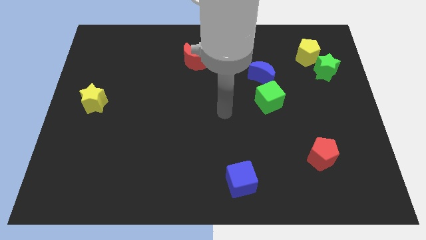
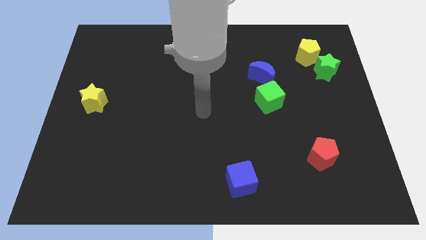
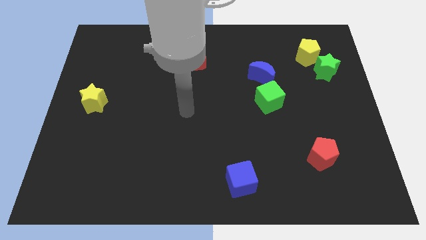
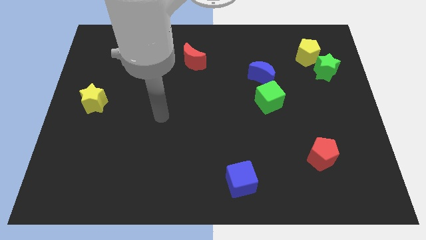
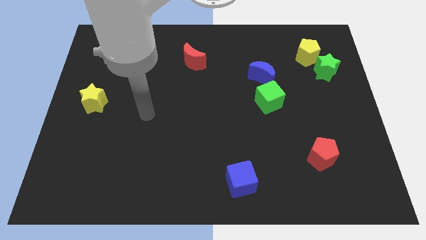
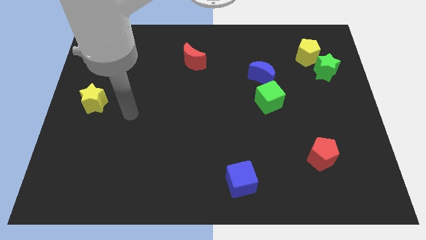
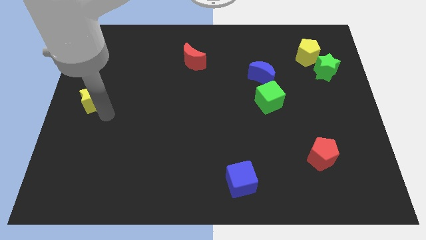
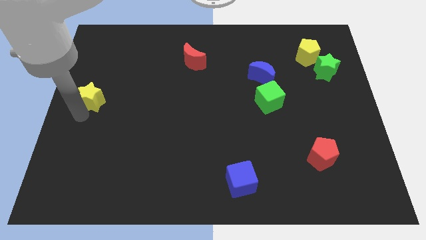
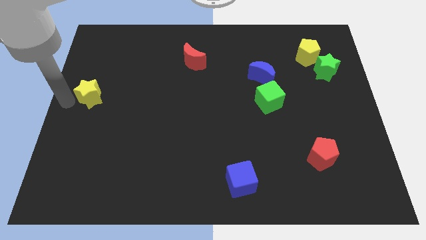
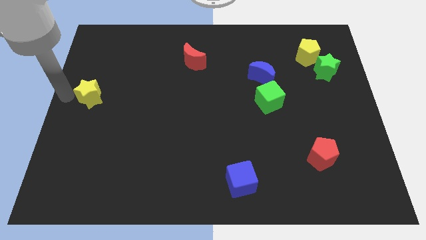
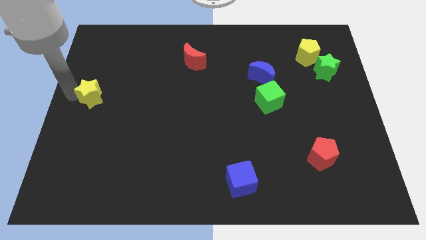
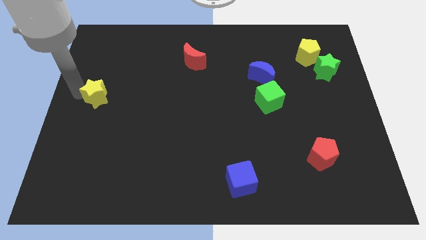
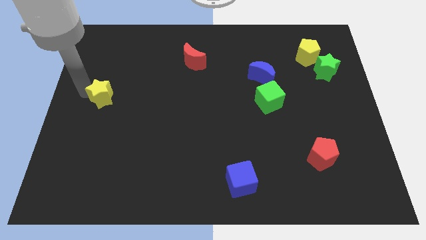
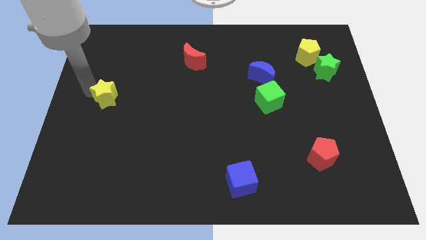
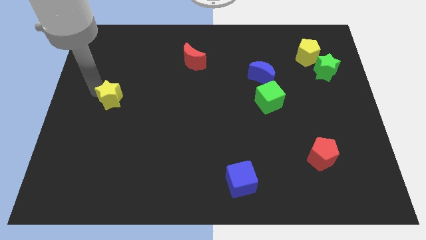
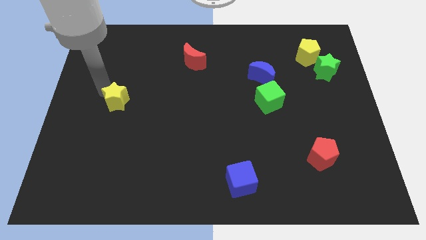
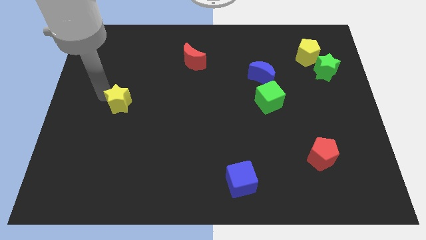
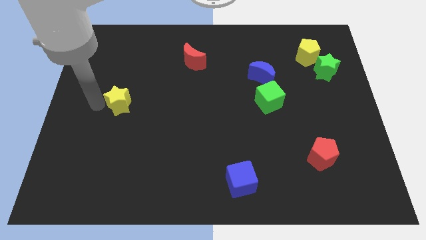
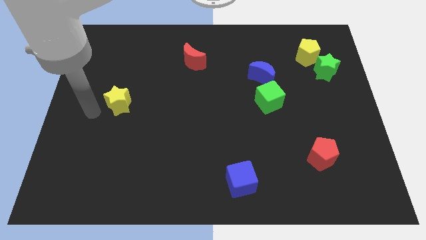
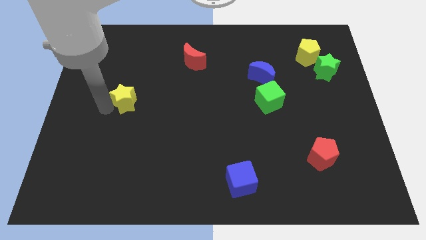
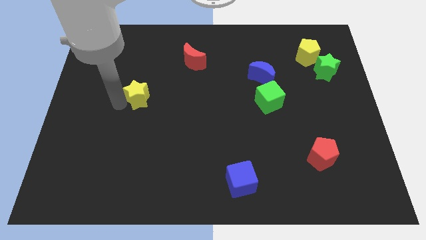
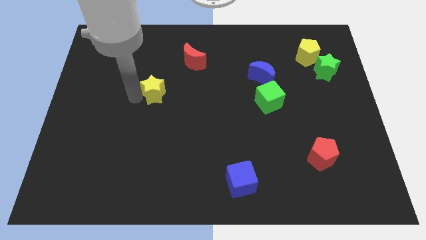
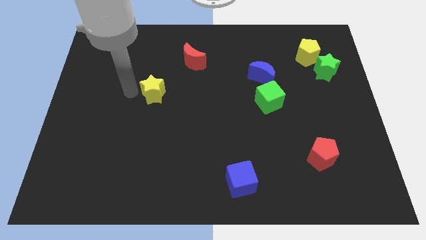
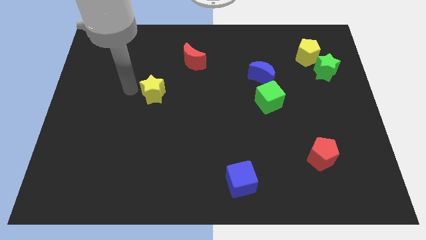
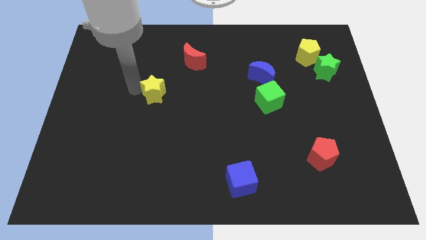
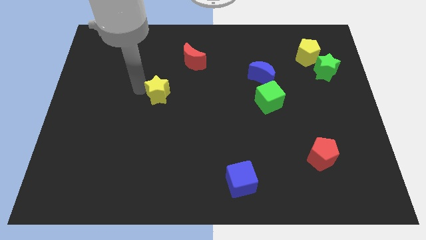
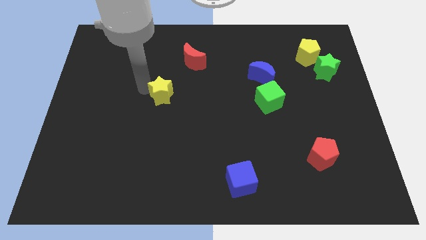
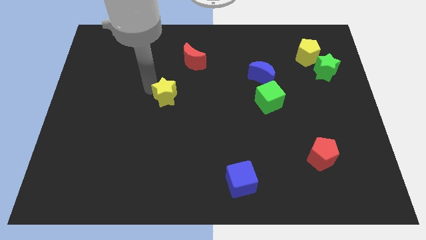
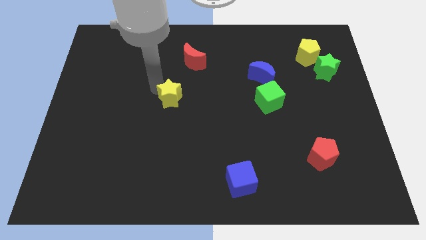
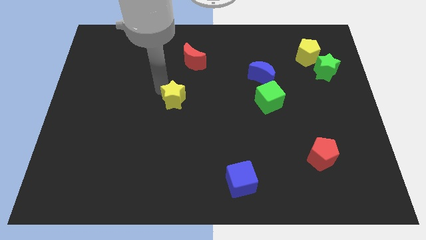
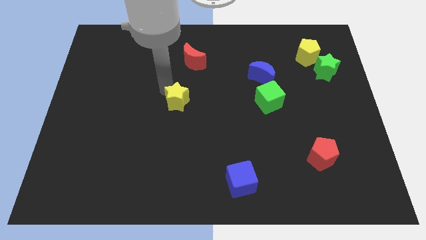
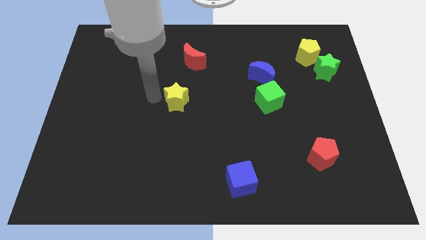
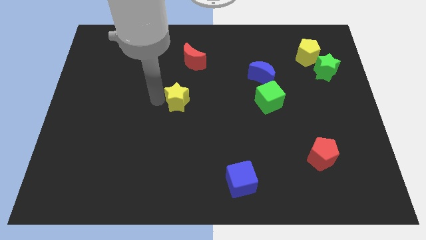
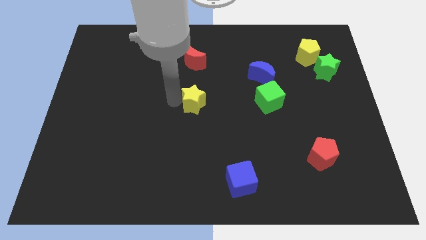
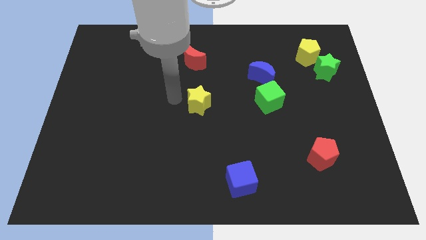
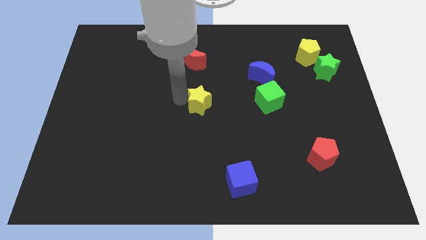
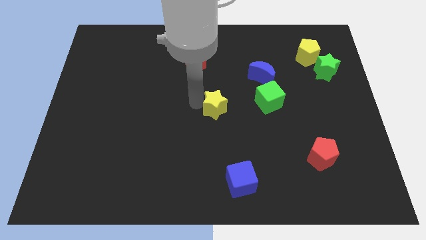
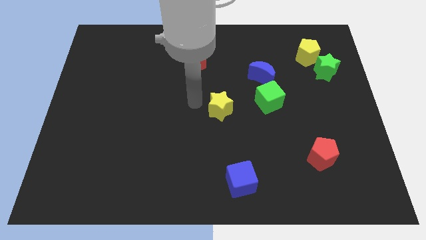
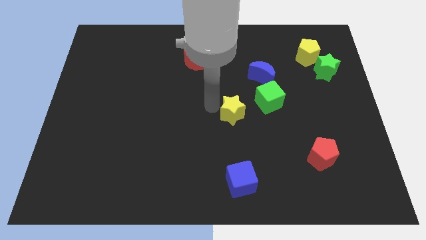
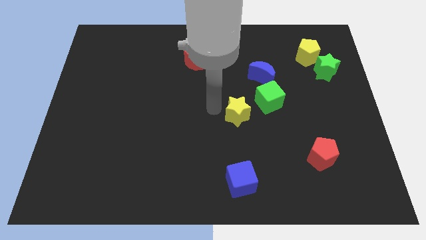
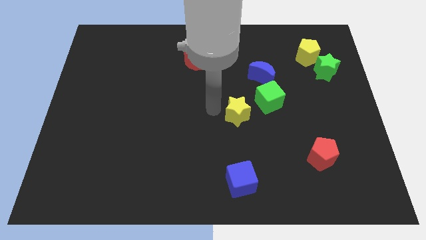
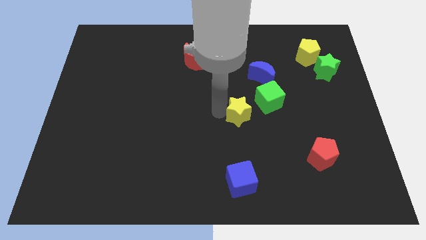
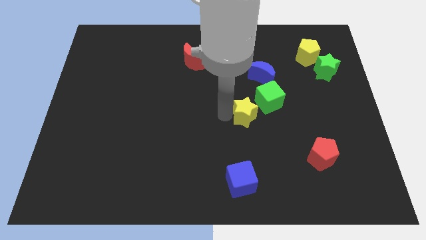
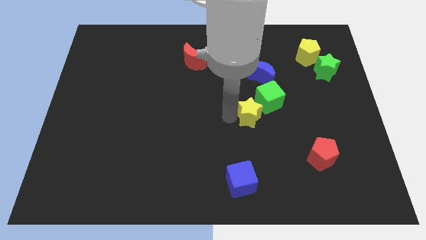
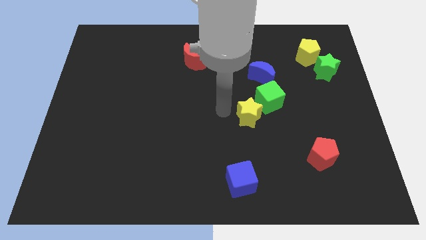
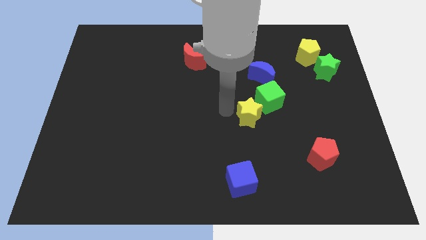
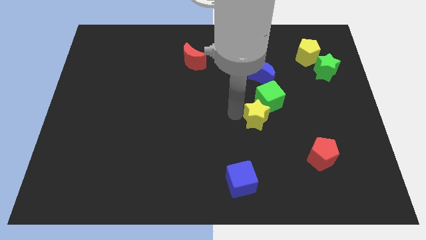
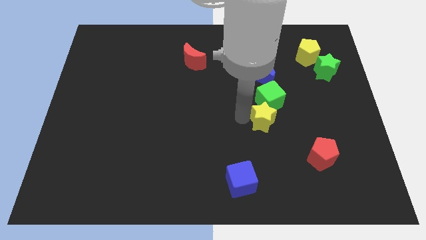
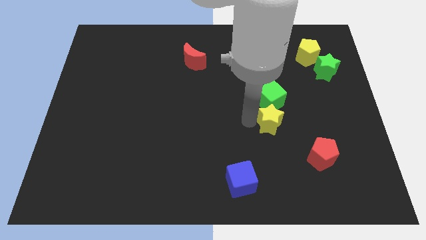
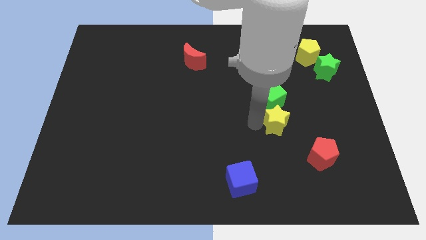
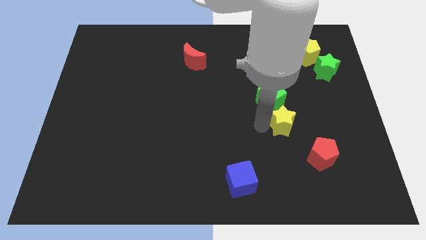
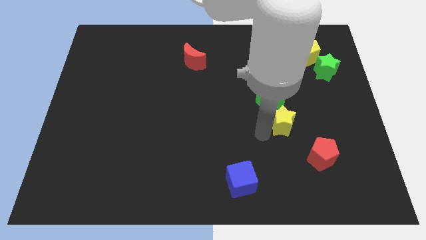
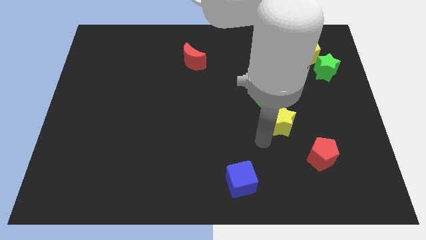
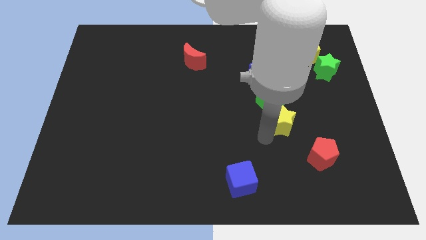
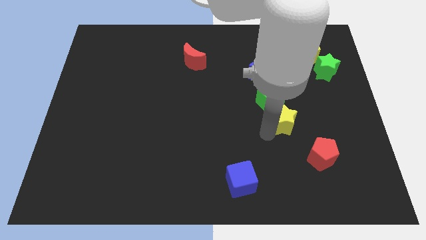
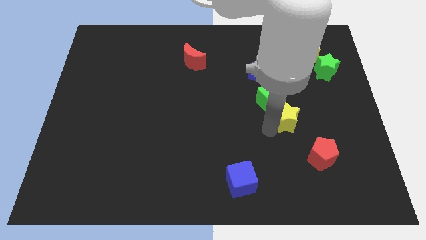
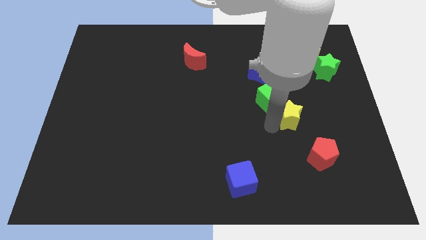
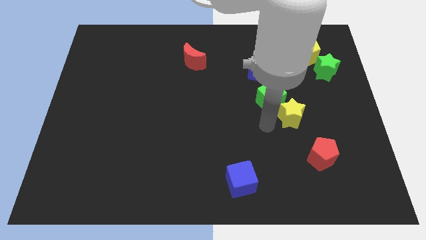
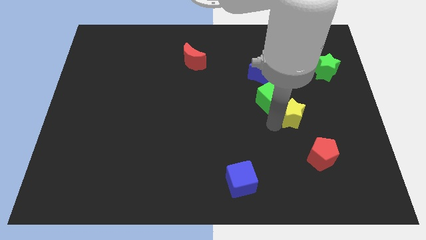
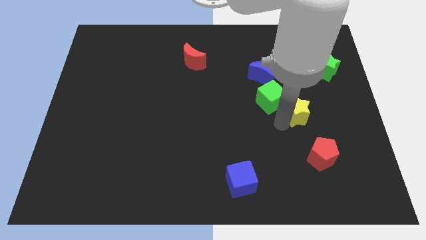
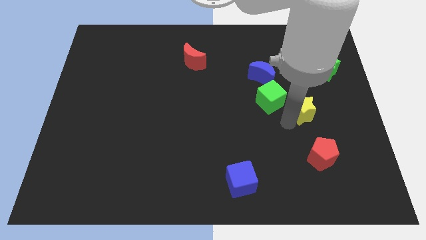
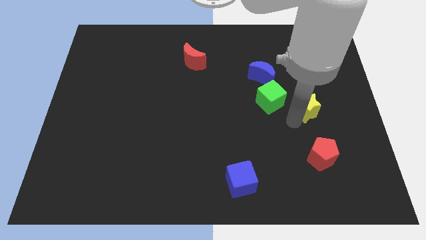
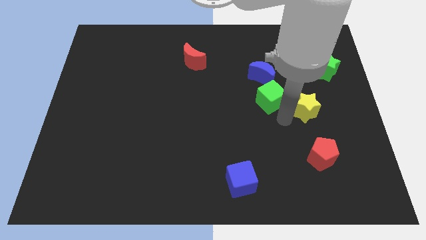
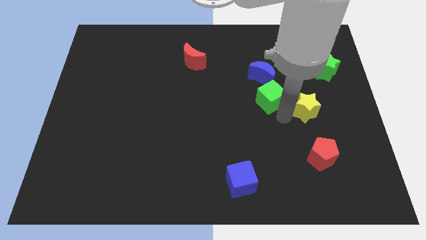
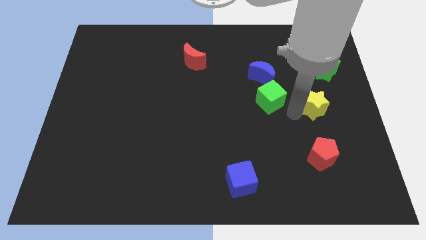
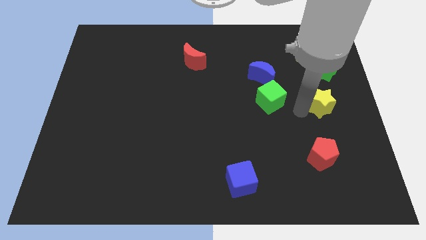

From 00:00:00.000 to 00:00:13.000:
push the yellow star to the bottom side of the green star

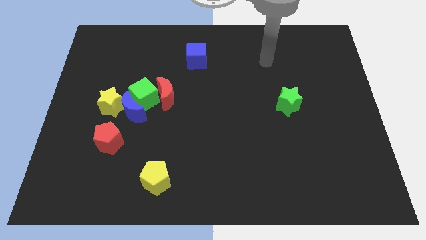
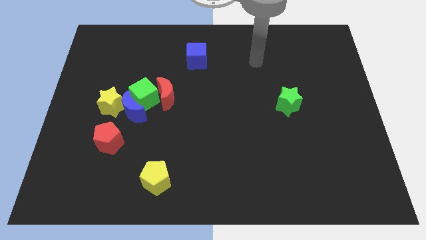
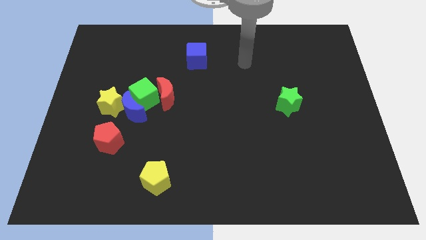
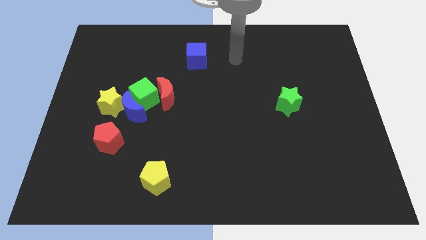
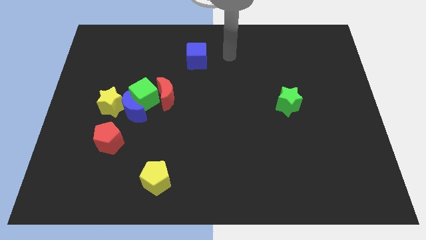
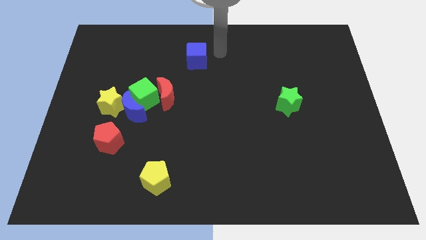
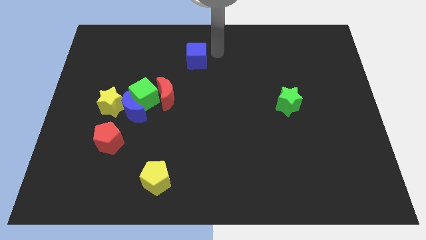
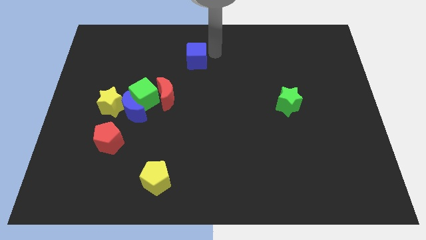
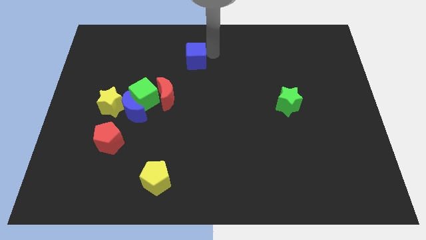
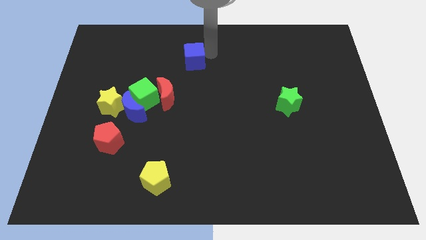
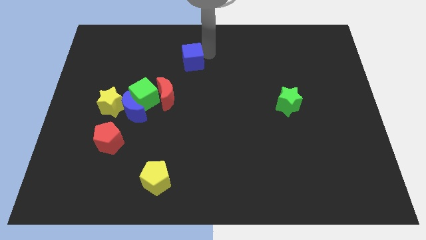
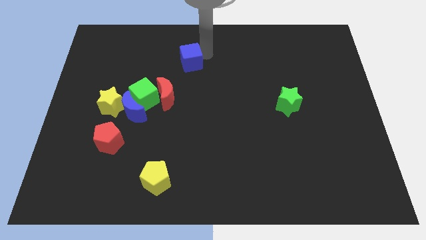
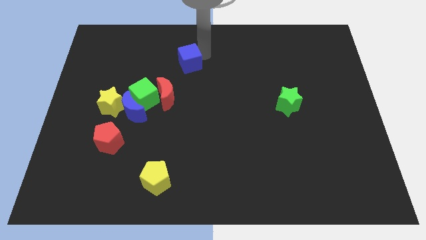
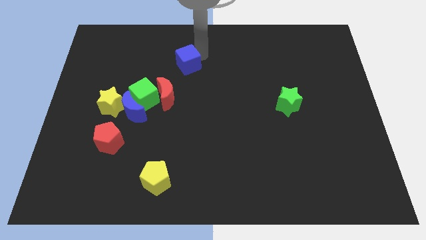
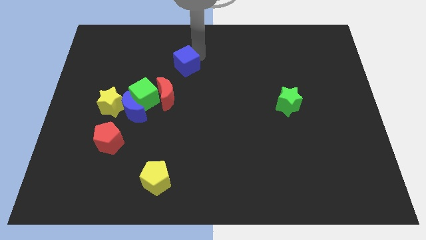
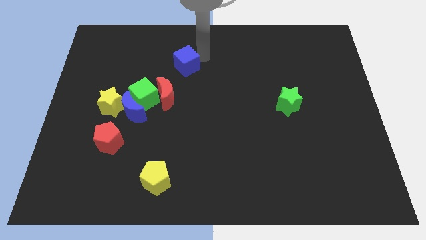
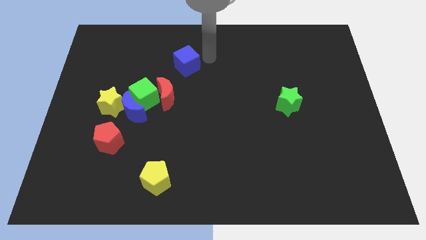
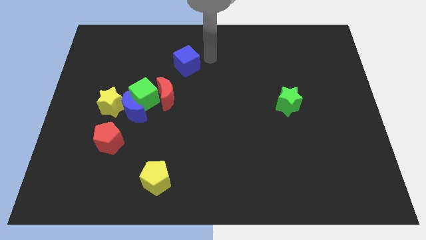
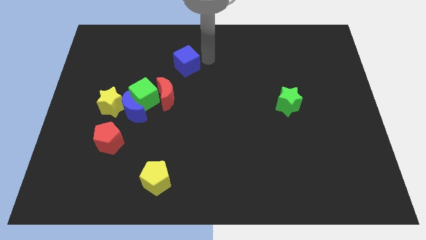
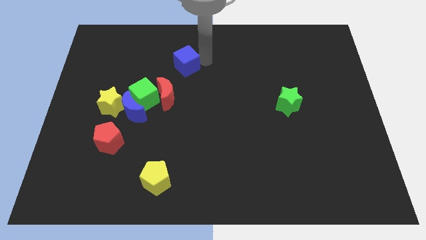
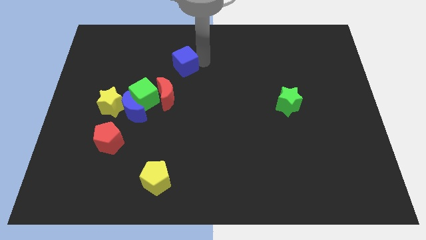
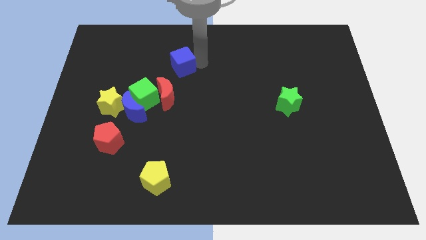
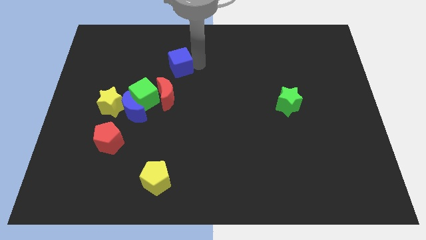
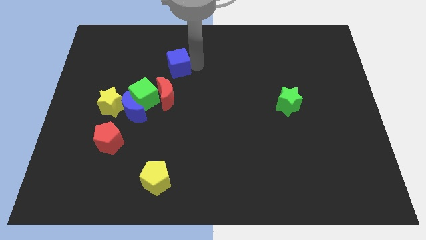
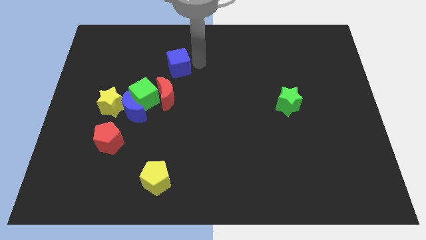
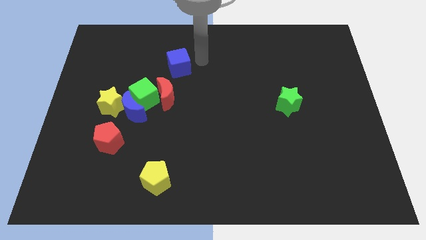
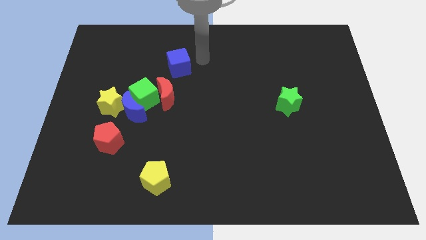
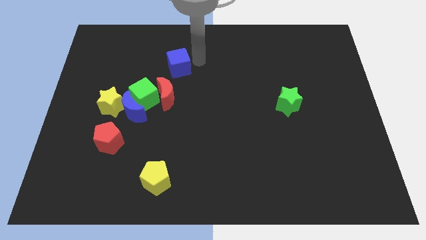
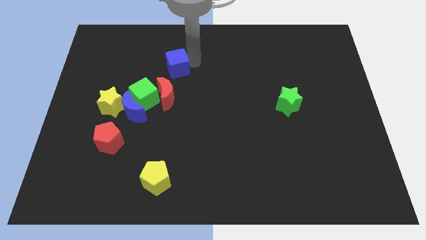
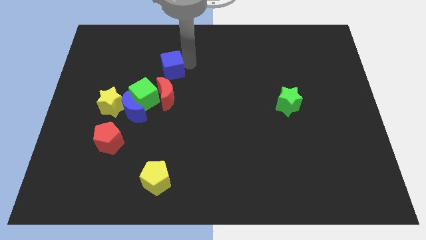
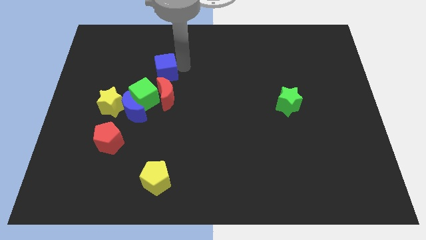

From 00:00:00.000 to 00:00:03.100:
slide the blue cube above the green cube
